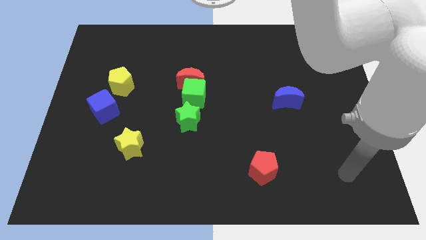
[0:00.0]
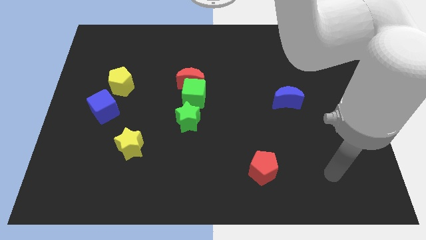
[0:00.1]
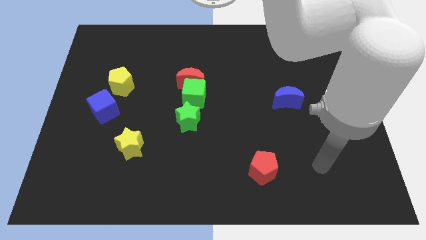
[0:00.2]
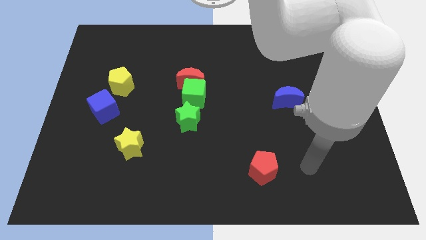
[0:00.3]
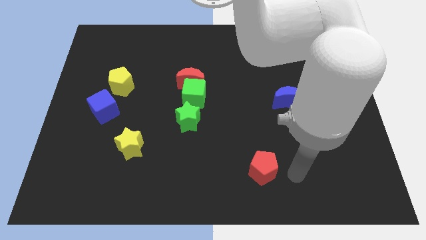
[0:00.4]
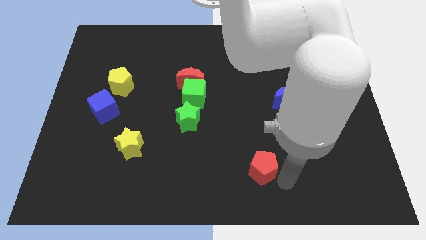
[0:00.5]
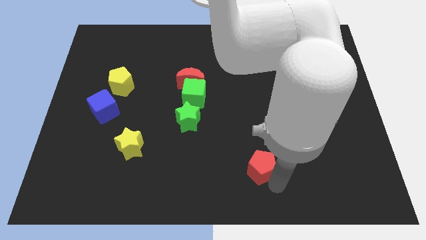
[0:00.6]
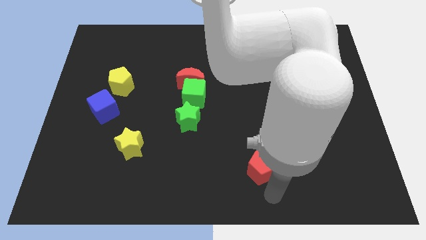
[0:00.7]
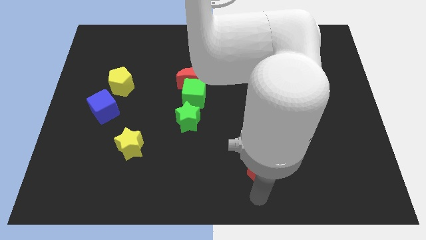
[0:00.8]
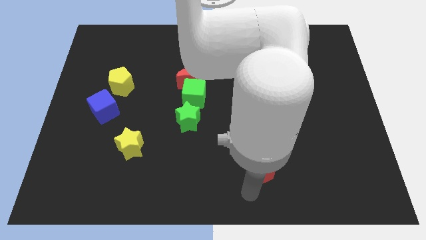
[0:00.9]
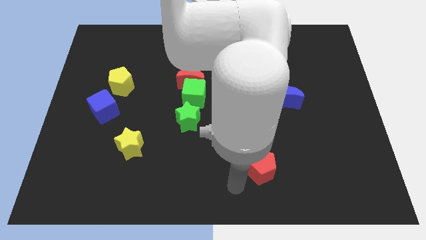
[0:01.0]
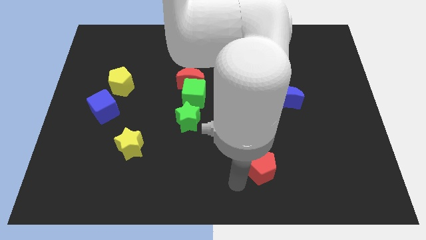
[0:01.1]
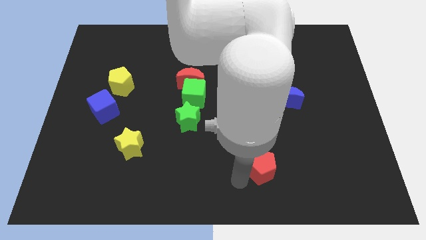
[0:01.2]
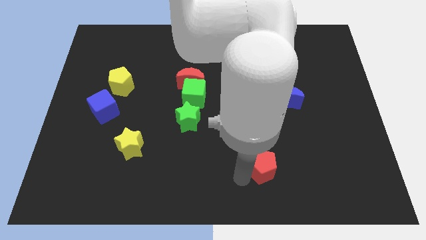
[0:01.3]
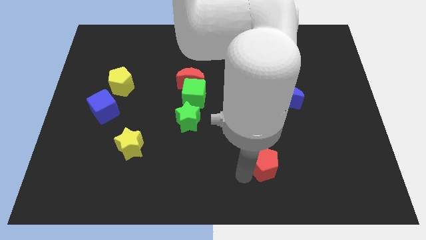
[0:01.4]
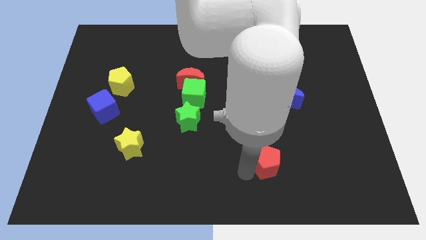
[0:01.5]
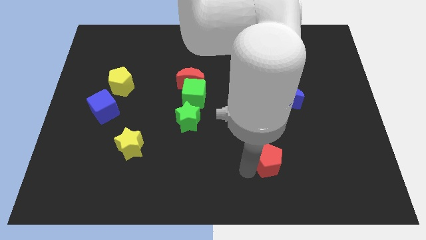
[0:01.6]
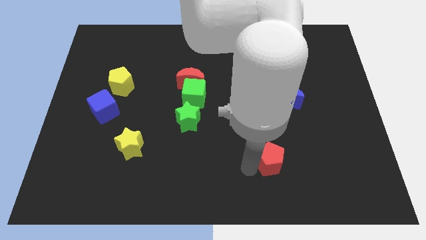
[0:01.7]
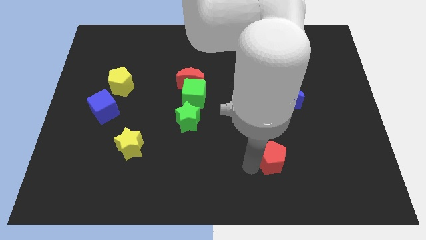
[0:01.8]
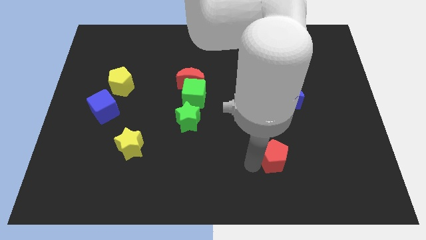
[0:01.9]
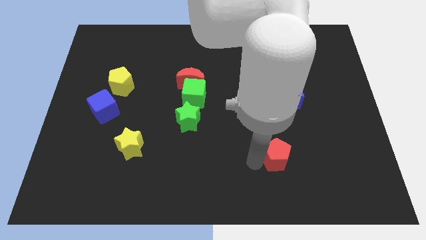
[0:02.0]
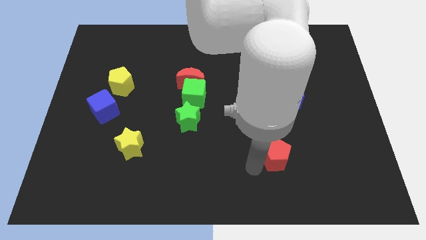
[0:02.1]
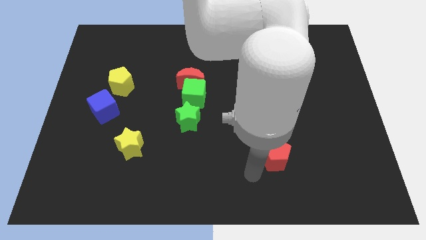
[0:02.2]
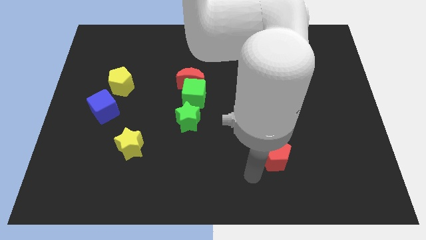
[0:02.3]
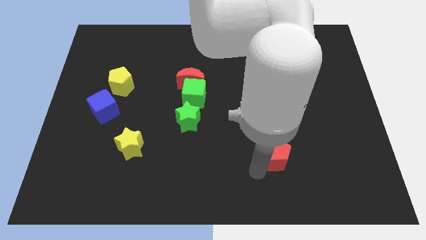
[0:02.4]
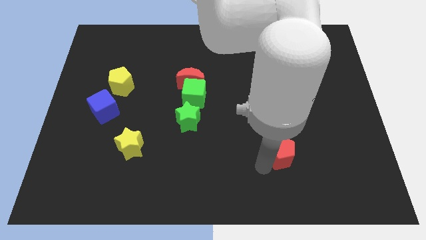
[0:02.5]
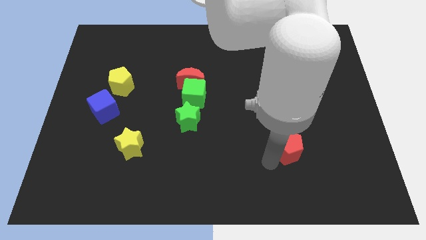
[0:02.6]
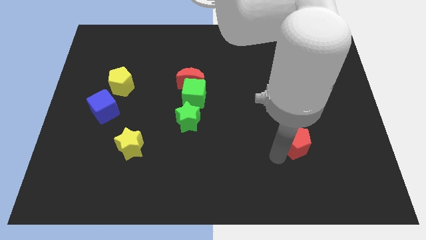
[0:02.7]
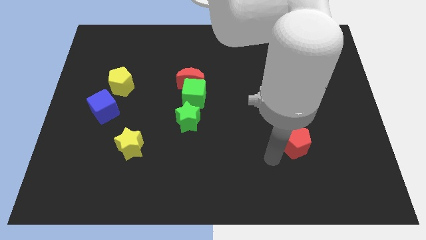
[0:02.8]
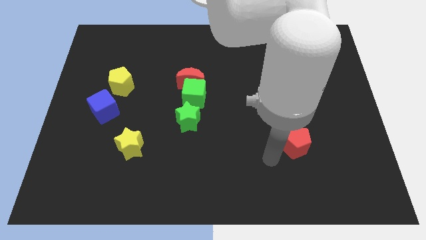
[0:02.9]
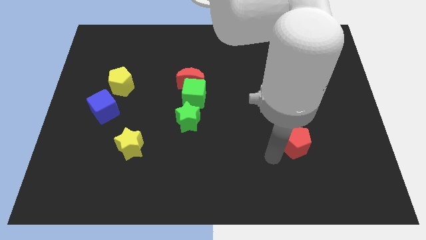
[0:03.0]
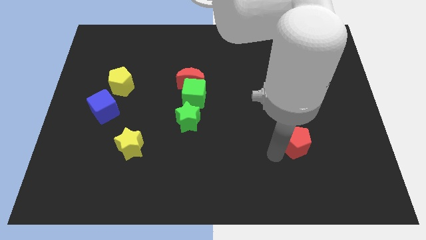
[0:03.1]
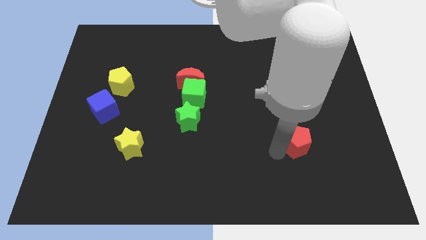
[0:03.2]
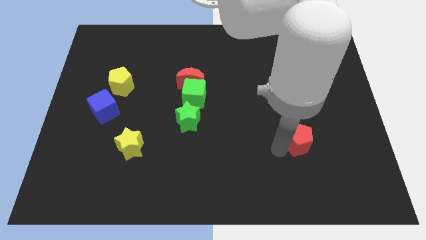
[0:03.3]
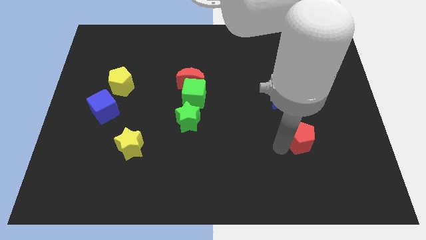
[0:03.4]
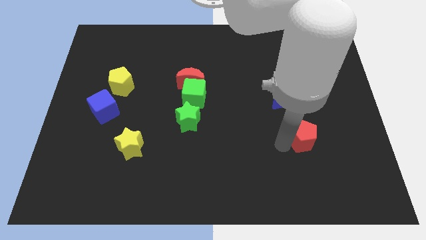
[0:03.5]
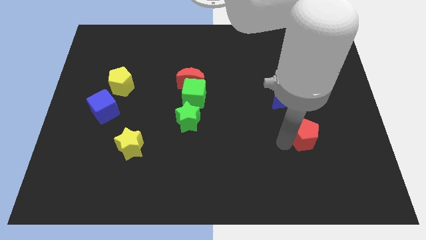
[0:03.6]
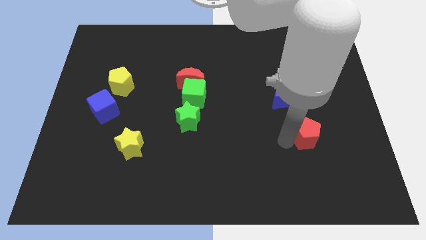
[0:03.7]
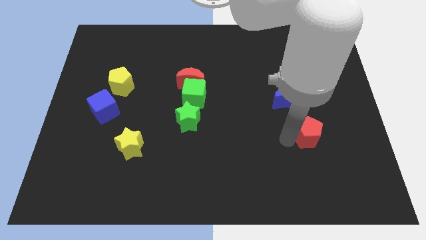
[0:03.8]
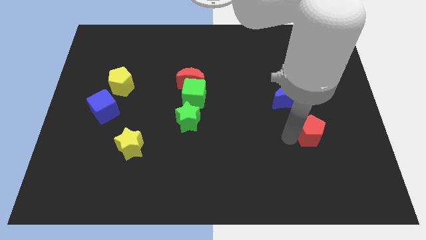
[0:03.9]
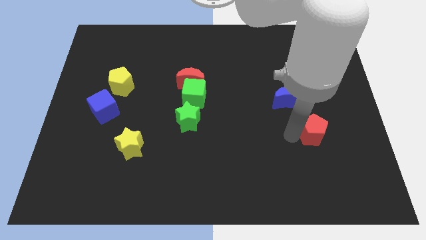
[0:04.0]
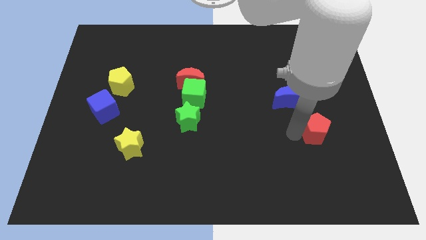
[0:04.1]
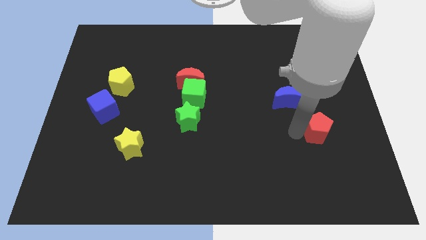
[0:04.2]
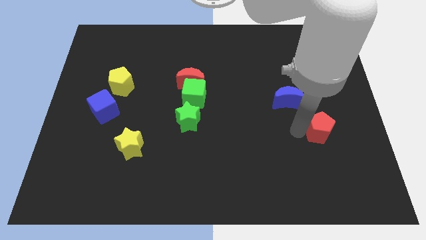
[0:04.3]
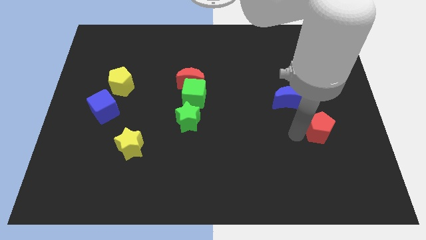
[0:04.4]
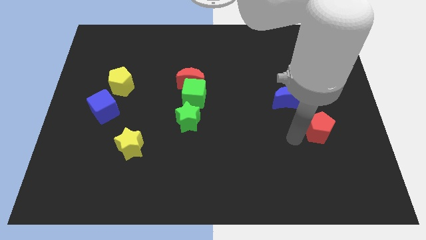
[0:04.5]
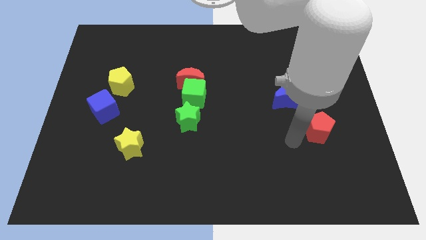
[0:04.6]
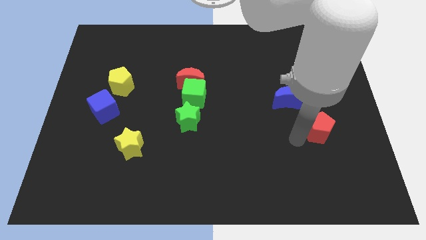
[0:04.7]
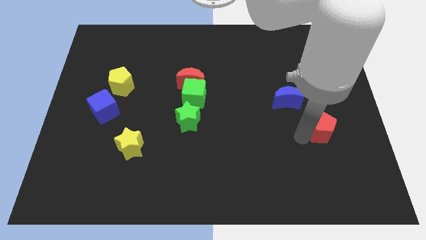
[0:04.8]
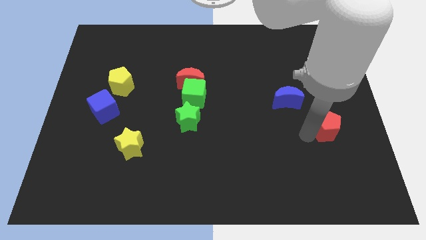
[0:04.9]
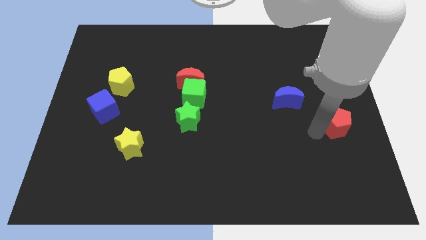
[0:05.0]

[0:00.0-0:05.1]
push the red pentagon to the right side

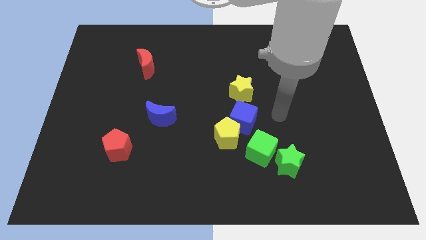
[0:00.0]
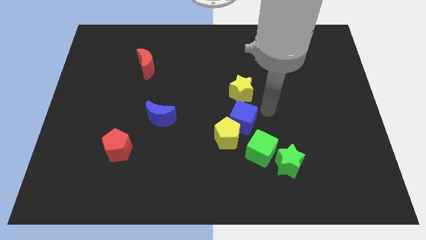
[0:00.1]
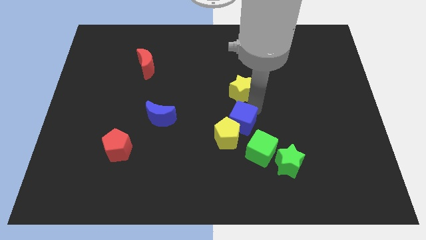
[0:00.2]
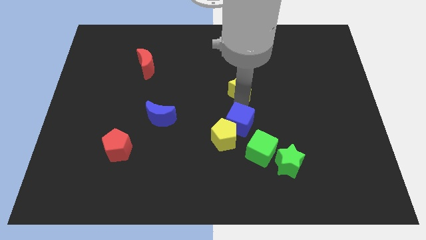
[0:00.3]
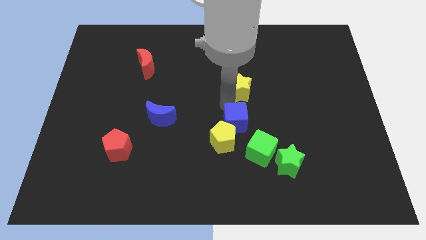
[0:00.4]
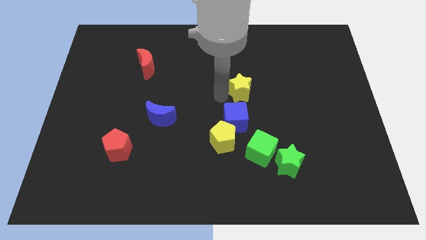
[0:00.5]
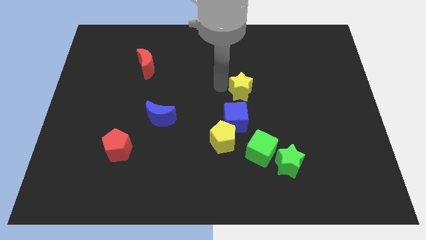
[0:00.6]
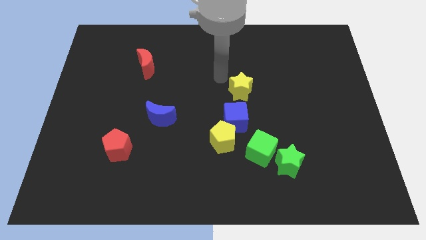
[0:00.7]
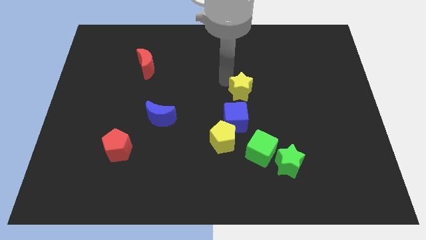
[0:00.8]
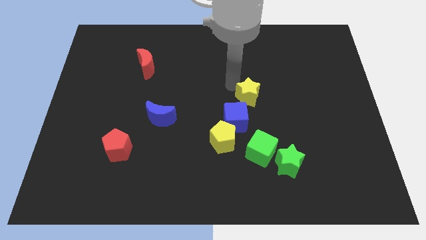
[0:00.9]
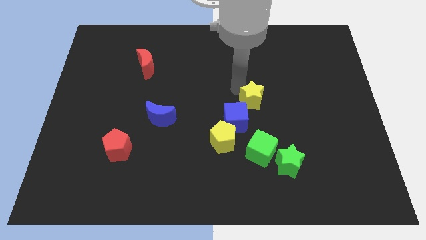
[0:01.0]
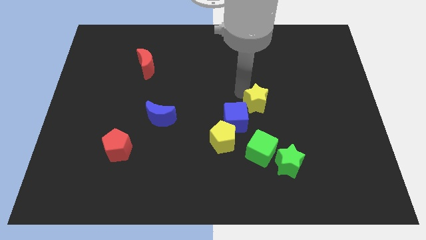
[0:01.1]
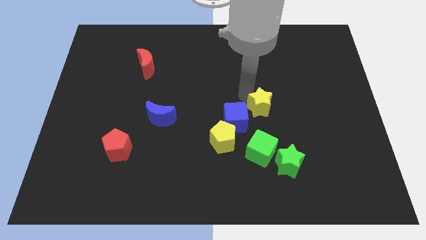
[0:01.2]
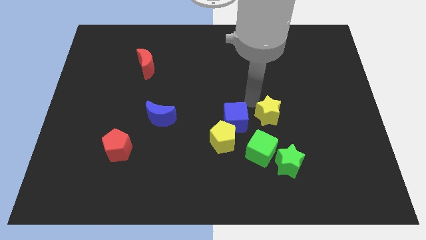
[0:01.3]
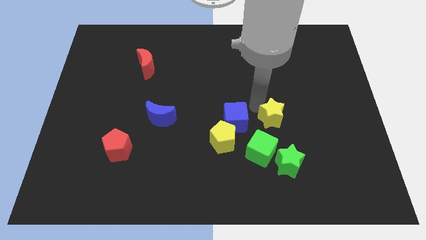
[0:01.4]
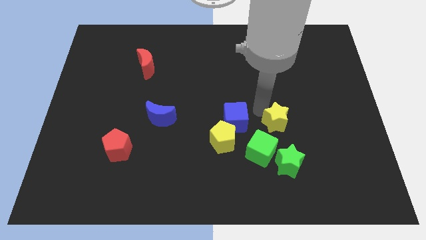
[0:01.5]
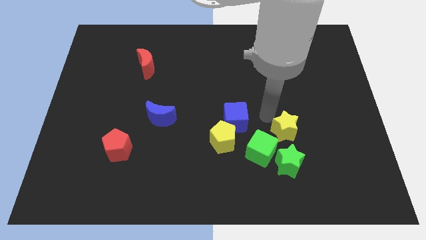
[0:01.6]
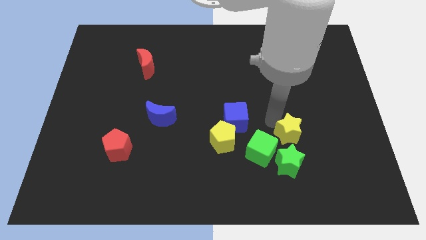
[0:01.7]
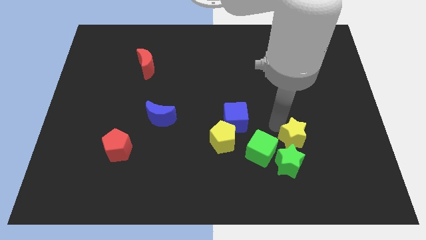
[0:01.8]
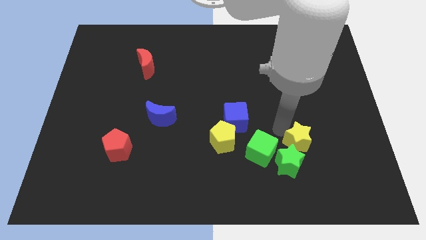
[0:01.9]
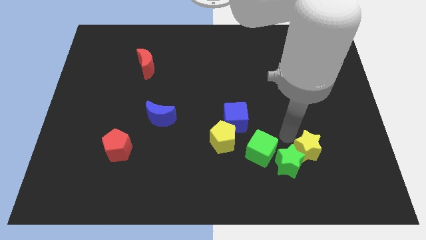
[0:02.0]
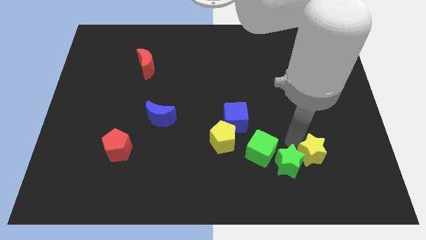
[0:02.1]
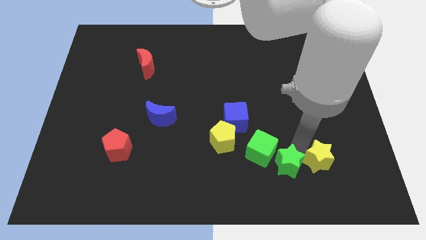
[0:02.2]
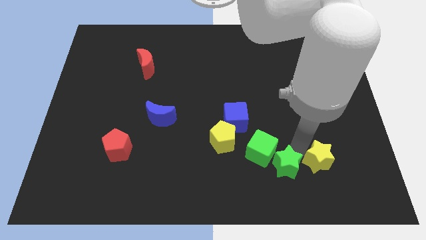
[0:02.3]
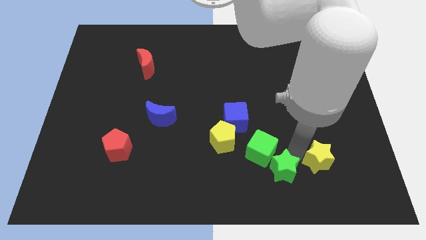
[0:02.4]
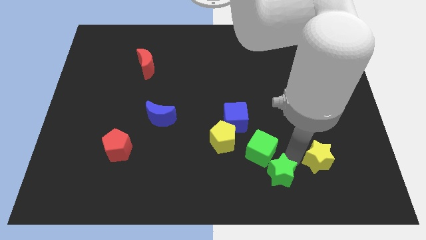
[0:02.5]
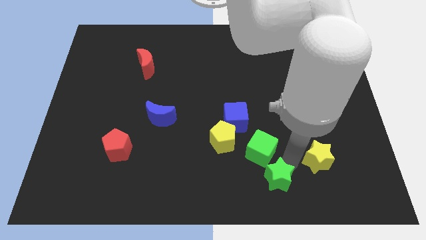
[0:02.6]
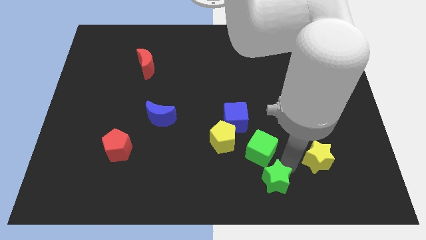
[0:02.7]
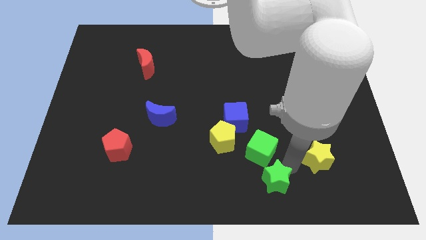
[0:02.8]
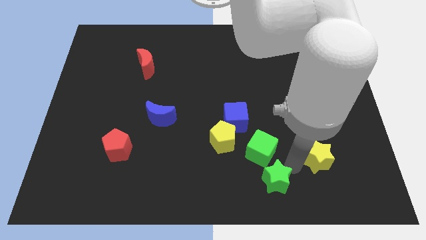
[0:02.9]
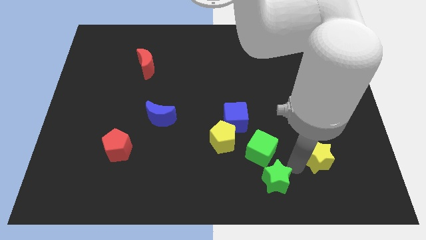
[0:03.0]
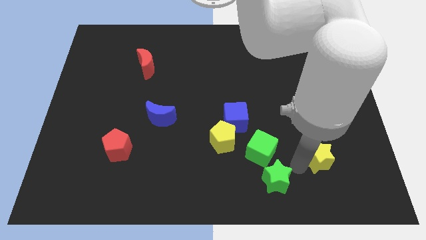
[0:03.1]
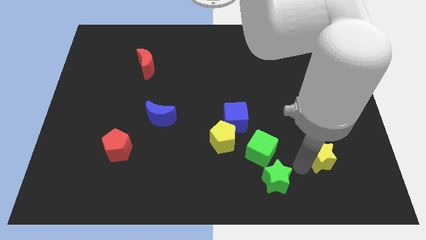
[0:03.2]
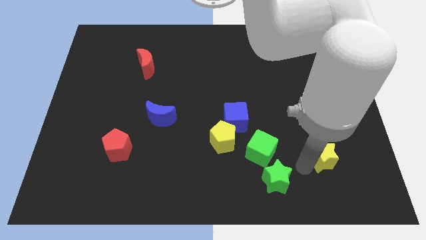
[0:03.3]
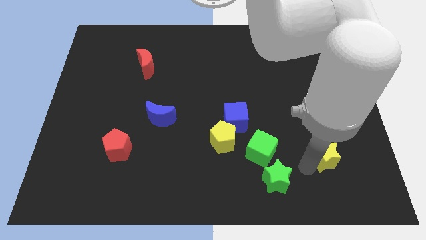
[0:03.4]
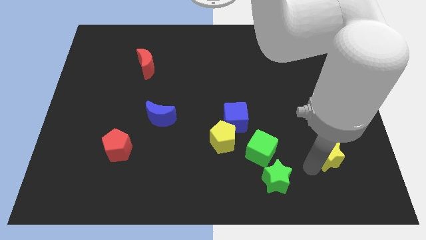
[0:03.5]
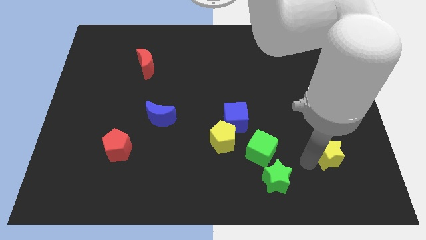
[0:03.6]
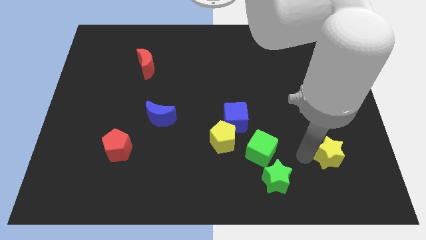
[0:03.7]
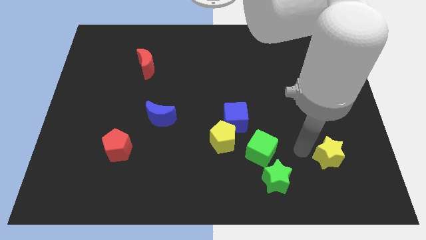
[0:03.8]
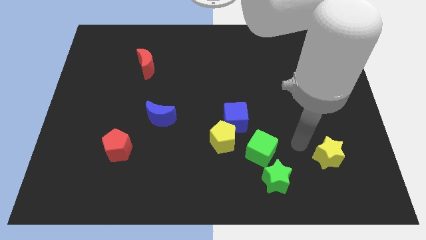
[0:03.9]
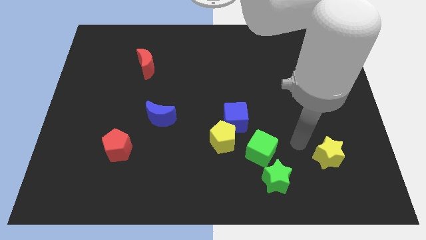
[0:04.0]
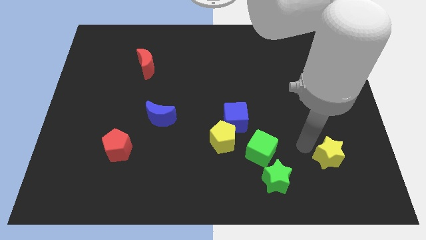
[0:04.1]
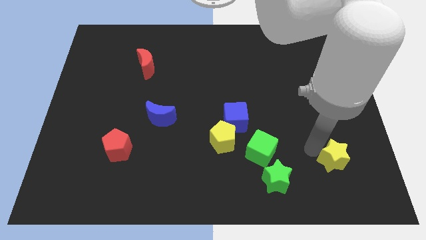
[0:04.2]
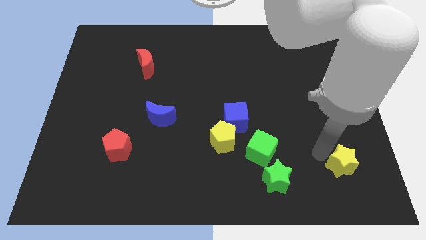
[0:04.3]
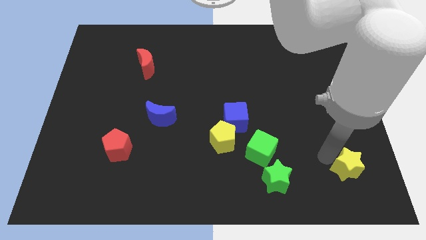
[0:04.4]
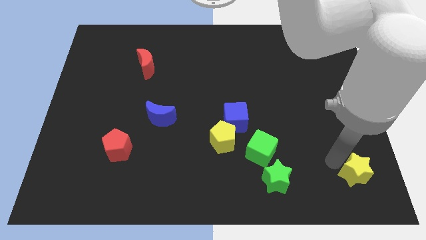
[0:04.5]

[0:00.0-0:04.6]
put the yellow star to the bottom right
